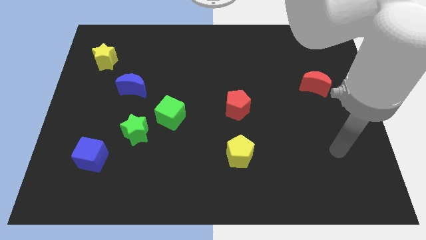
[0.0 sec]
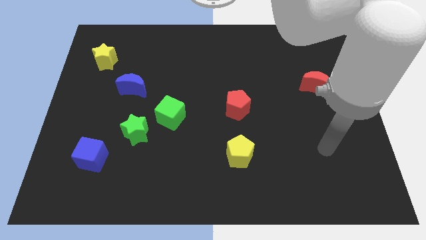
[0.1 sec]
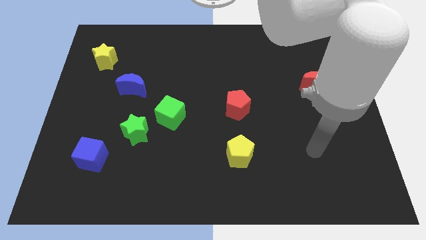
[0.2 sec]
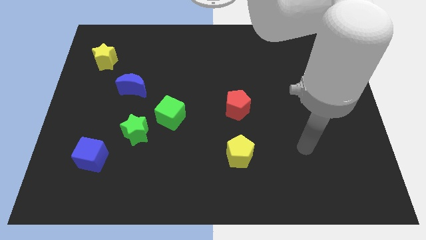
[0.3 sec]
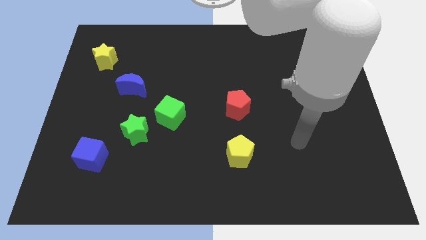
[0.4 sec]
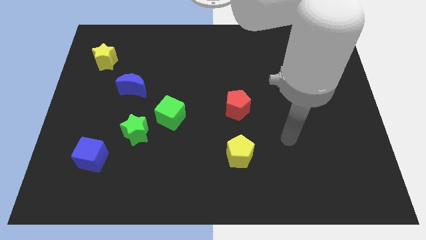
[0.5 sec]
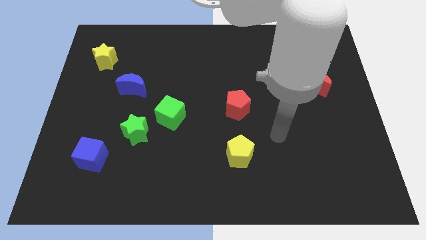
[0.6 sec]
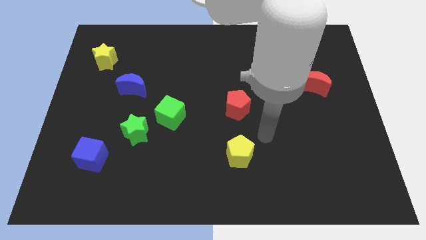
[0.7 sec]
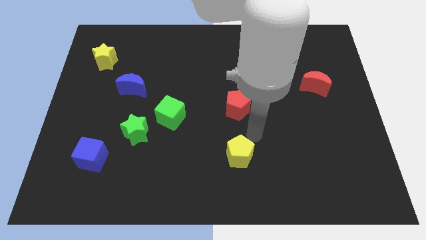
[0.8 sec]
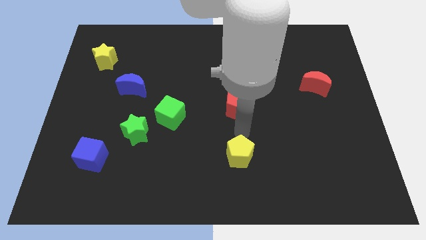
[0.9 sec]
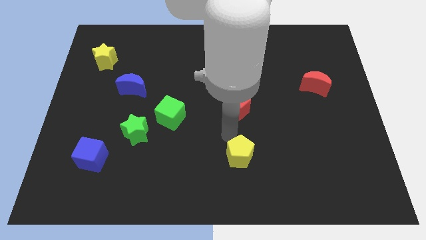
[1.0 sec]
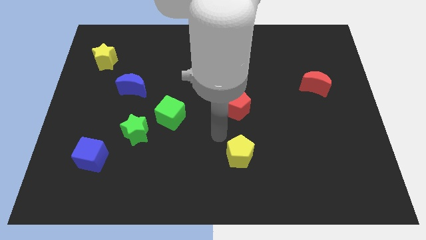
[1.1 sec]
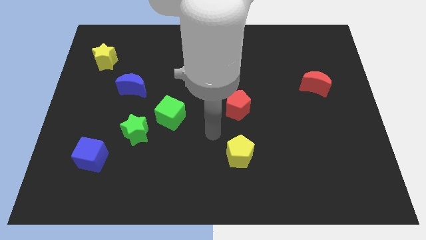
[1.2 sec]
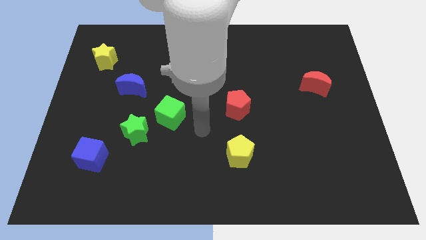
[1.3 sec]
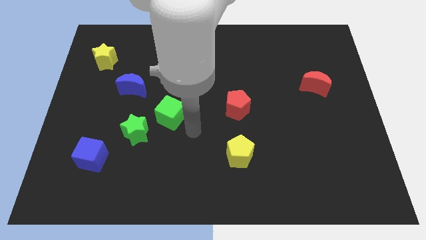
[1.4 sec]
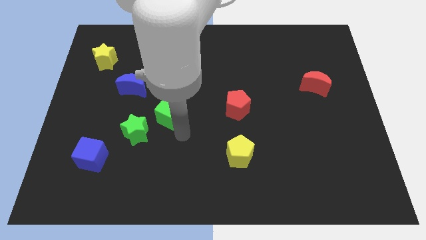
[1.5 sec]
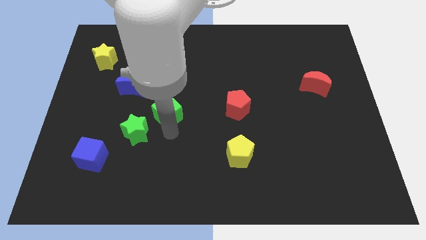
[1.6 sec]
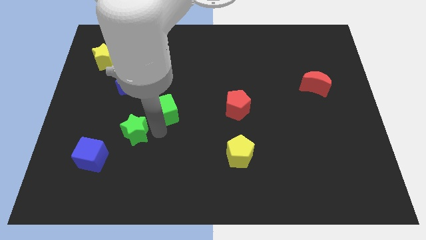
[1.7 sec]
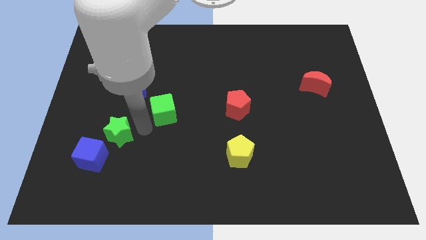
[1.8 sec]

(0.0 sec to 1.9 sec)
move the green cube away from the green star

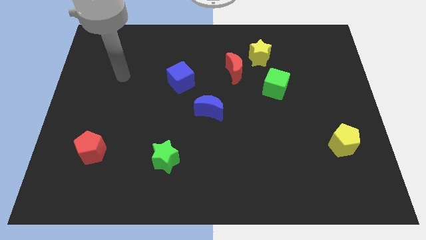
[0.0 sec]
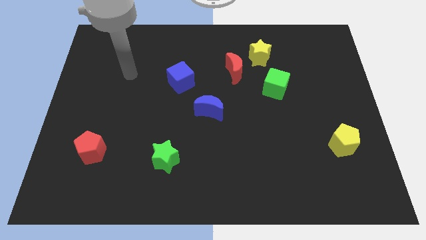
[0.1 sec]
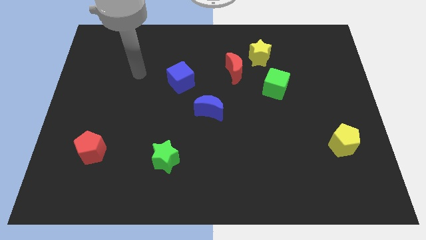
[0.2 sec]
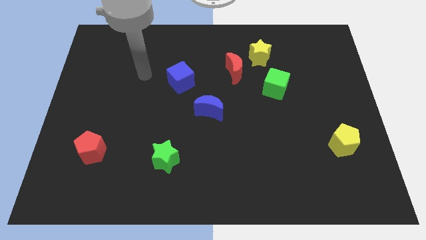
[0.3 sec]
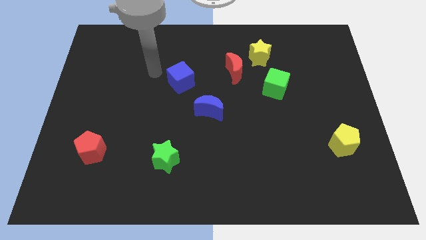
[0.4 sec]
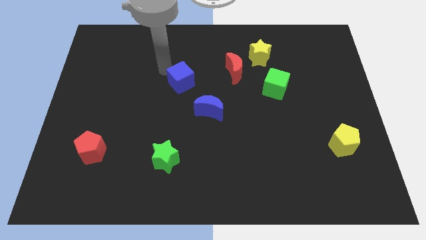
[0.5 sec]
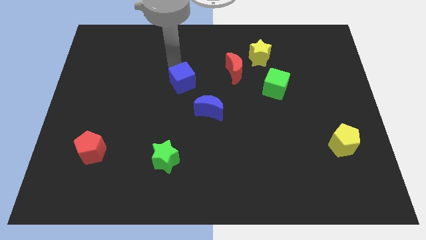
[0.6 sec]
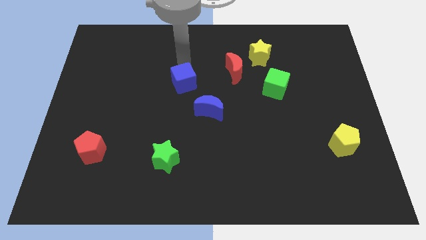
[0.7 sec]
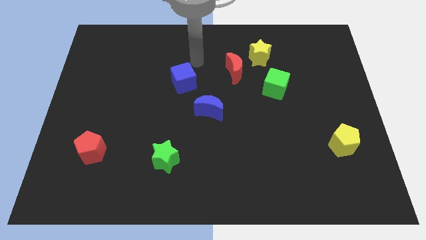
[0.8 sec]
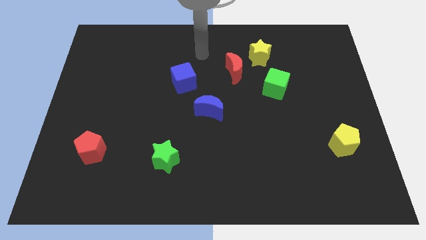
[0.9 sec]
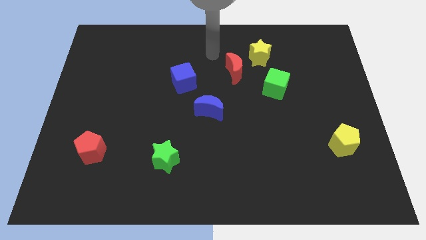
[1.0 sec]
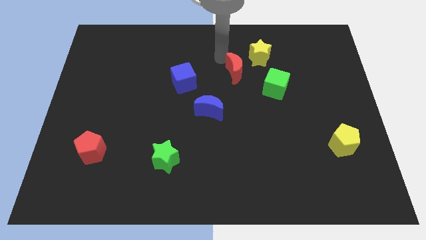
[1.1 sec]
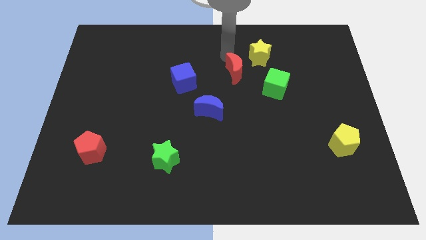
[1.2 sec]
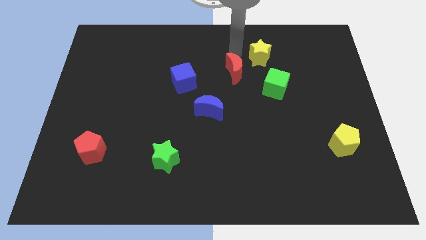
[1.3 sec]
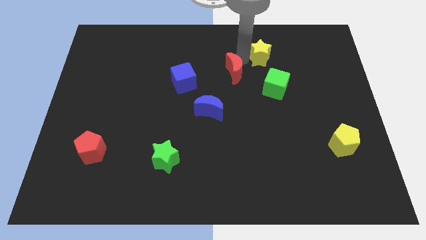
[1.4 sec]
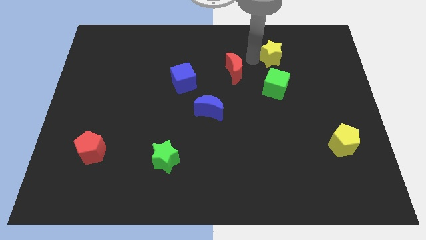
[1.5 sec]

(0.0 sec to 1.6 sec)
separate the red moon from the yellow star

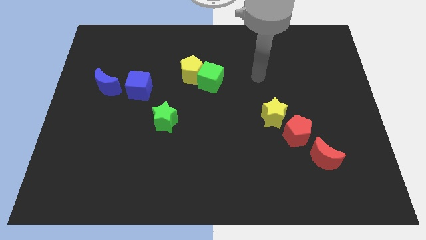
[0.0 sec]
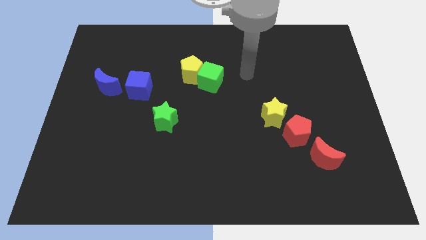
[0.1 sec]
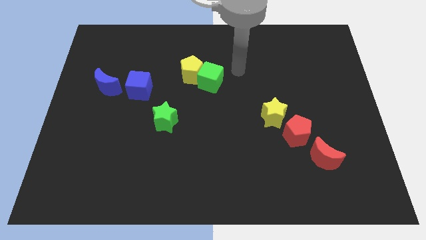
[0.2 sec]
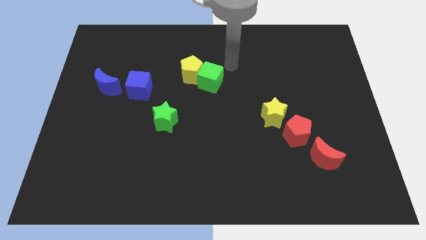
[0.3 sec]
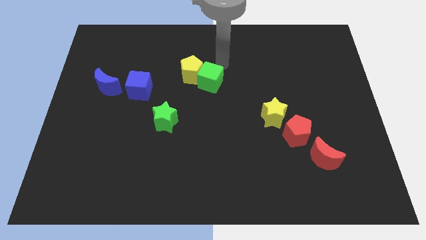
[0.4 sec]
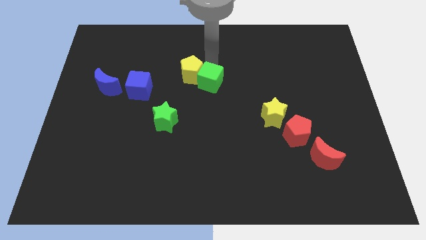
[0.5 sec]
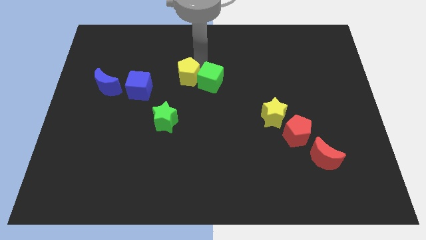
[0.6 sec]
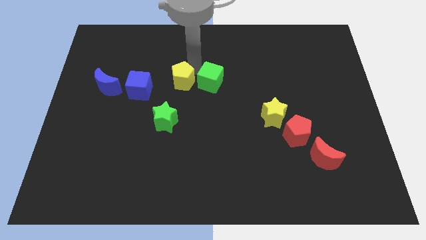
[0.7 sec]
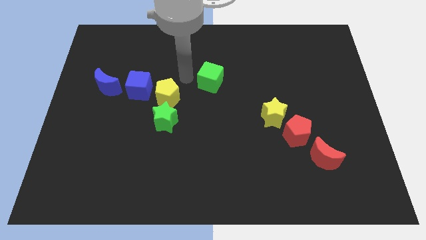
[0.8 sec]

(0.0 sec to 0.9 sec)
separate the green cube from the yellow pentagon

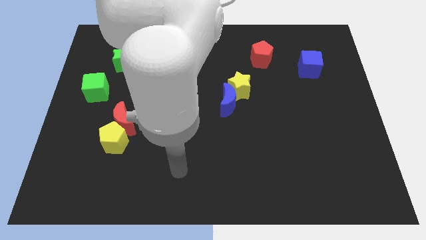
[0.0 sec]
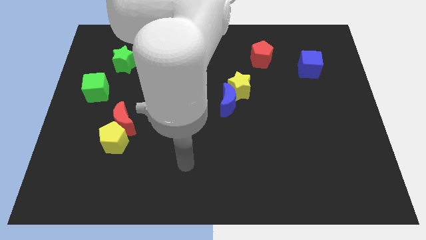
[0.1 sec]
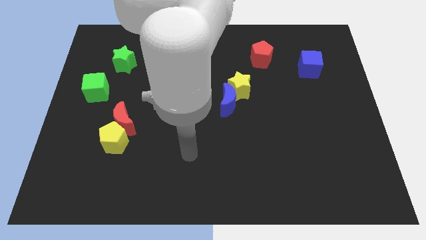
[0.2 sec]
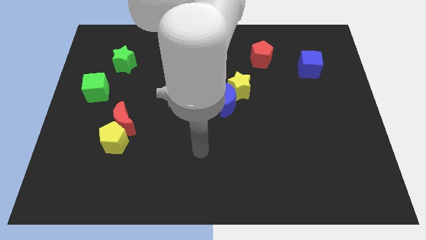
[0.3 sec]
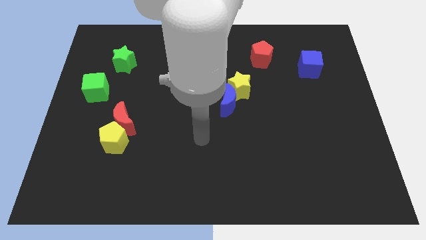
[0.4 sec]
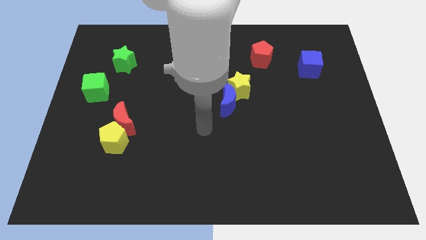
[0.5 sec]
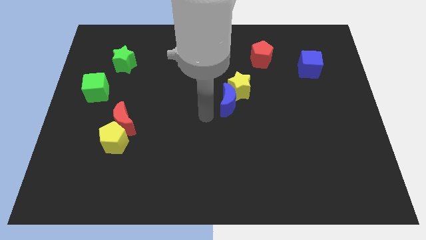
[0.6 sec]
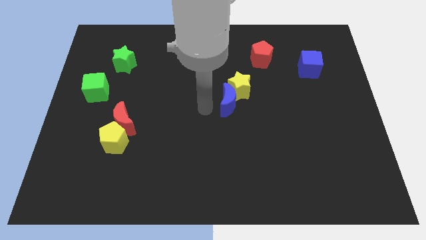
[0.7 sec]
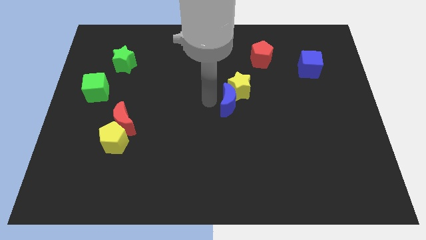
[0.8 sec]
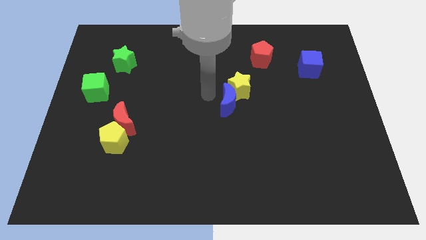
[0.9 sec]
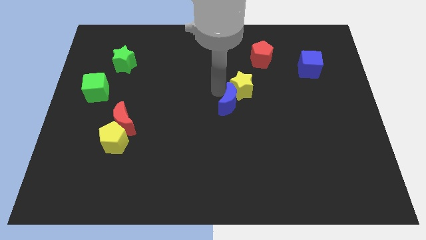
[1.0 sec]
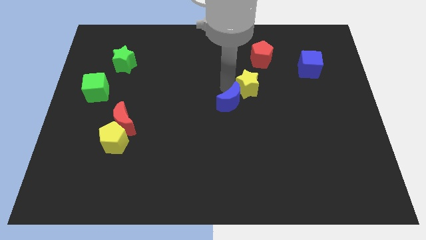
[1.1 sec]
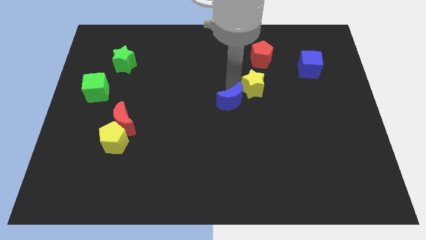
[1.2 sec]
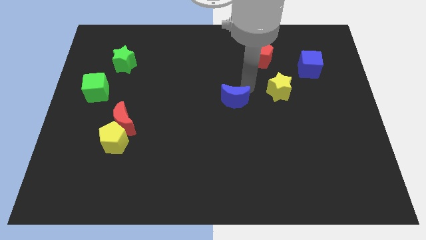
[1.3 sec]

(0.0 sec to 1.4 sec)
move the blue moon away from the yellow star

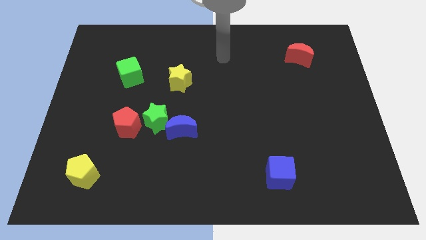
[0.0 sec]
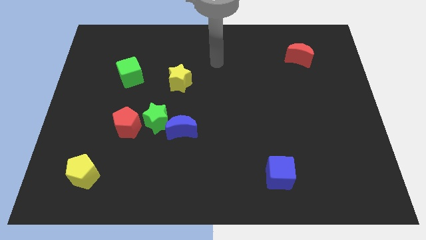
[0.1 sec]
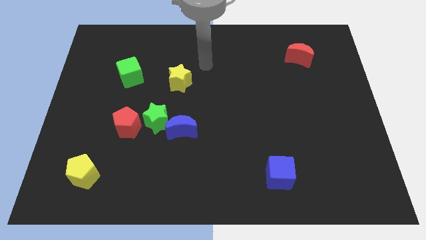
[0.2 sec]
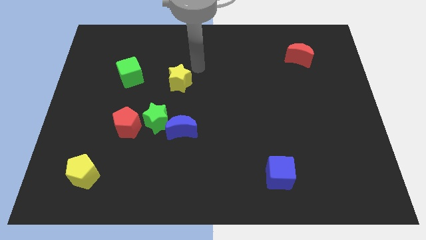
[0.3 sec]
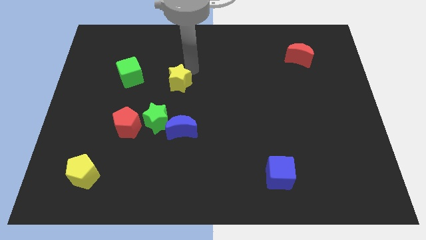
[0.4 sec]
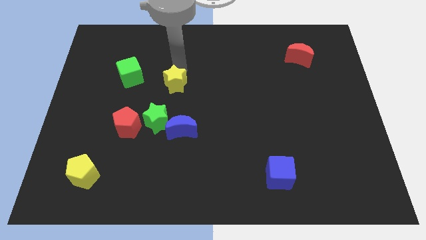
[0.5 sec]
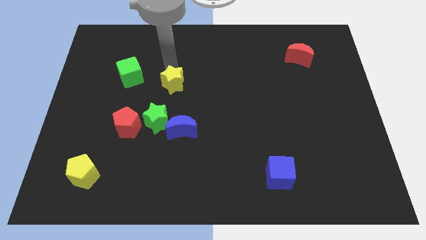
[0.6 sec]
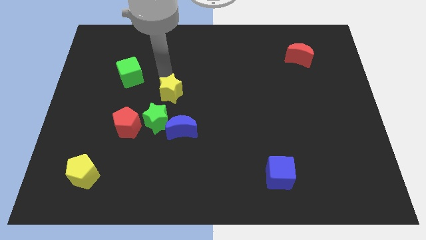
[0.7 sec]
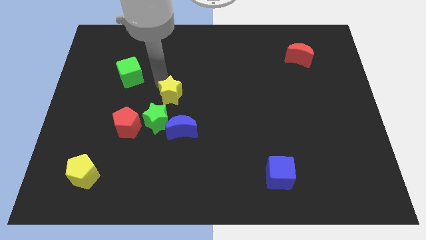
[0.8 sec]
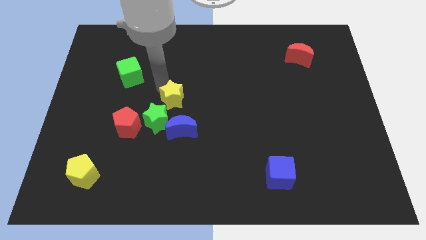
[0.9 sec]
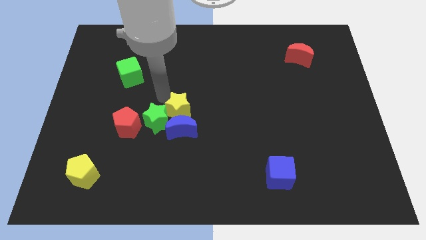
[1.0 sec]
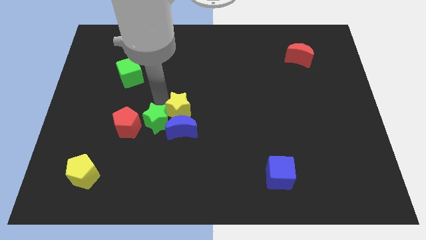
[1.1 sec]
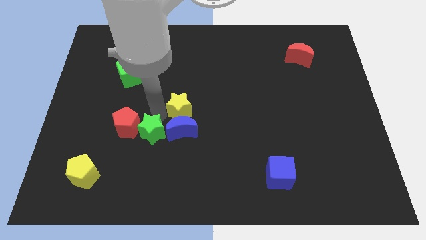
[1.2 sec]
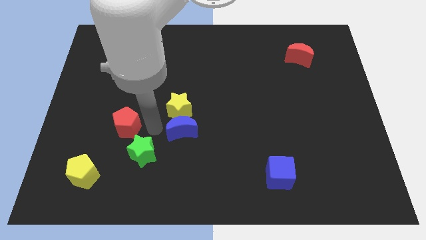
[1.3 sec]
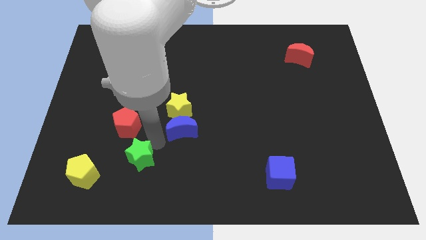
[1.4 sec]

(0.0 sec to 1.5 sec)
move the blue moon away from the green star

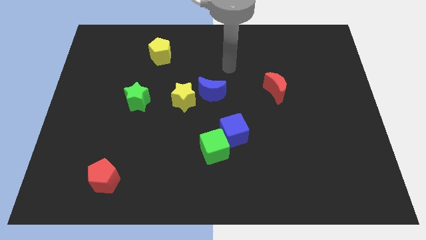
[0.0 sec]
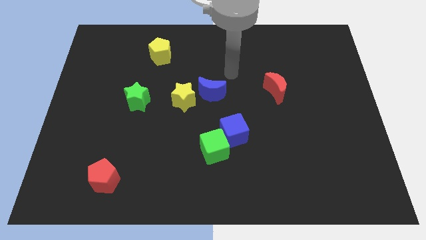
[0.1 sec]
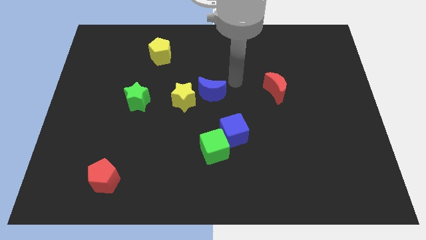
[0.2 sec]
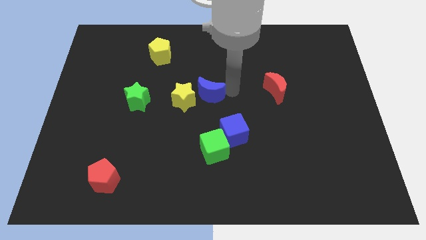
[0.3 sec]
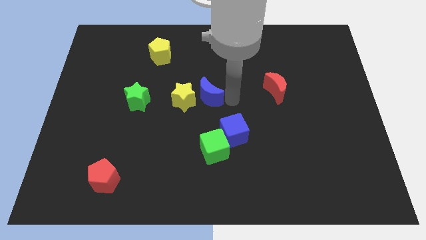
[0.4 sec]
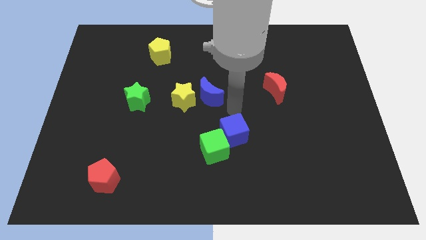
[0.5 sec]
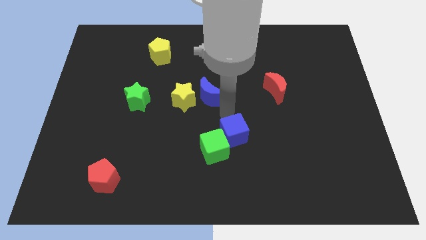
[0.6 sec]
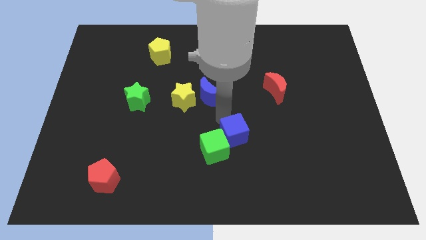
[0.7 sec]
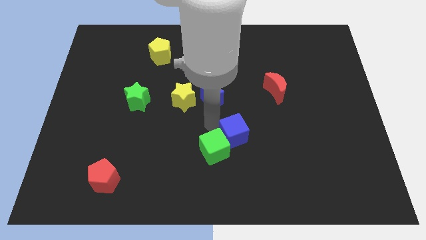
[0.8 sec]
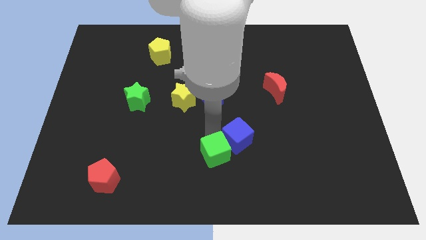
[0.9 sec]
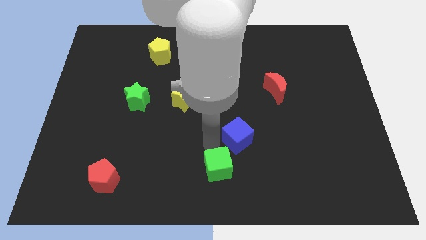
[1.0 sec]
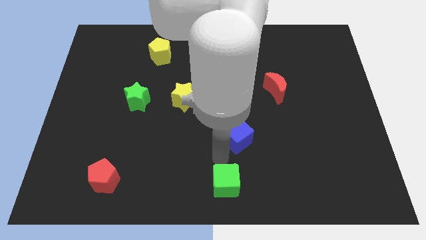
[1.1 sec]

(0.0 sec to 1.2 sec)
pull the blue cube apart from the green cube

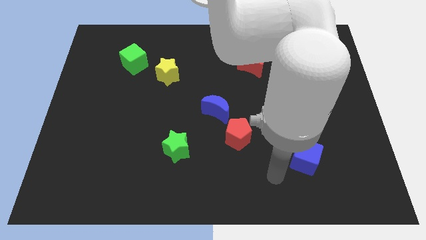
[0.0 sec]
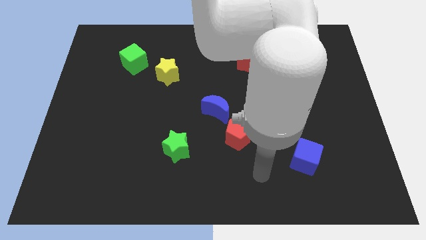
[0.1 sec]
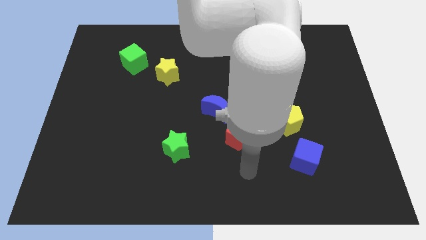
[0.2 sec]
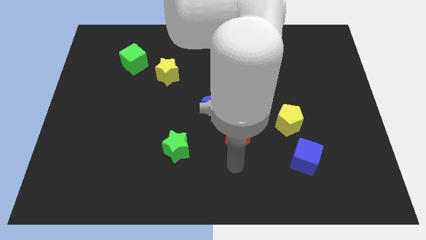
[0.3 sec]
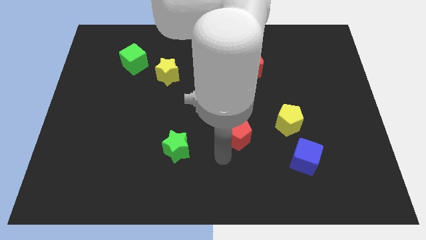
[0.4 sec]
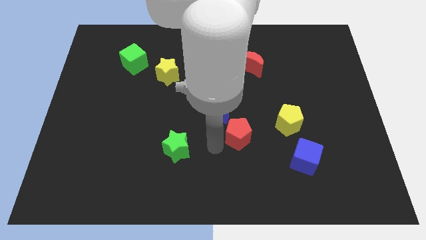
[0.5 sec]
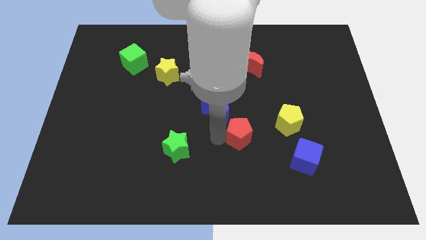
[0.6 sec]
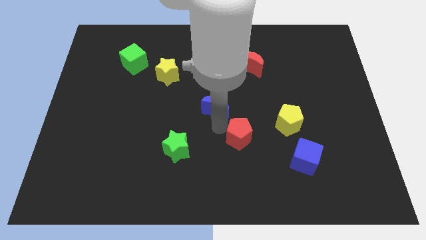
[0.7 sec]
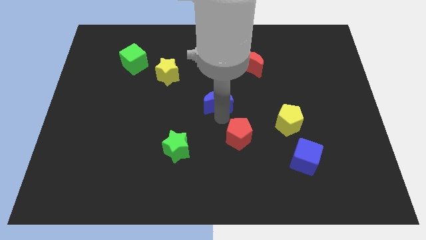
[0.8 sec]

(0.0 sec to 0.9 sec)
separate the red pentagon from the blue moon
